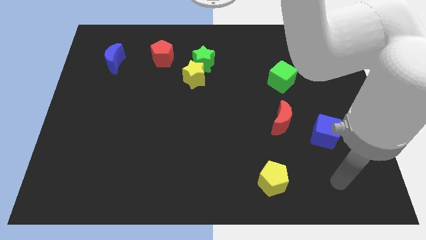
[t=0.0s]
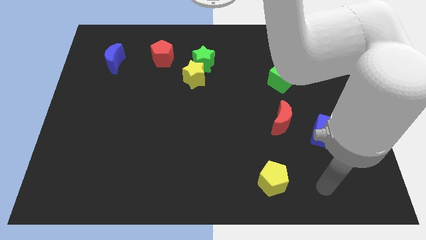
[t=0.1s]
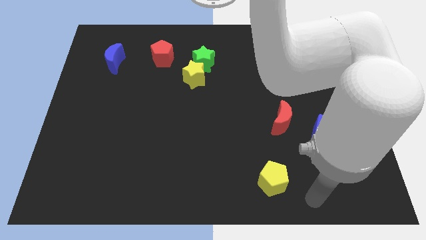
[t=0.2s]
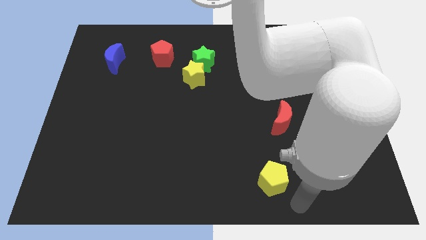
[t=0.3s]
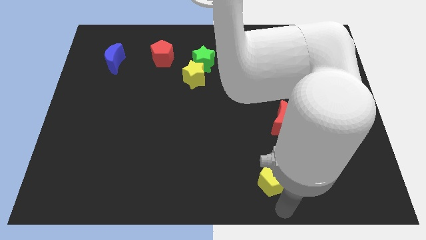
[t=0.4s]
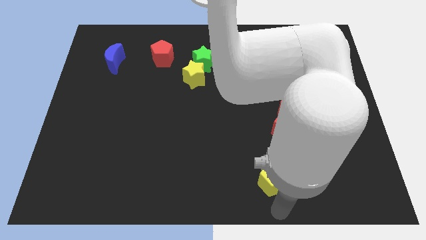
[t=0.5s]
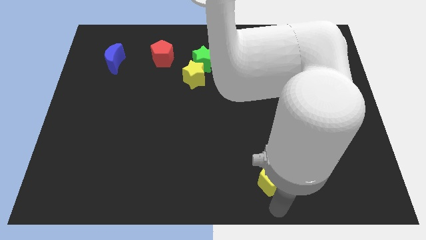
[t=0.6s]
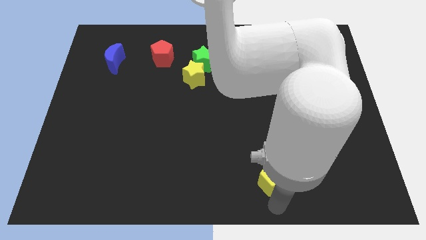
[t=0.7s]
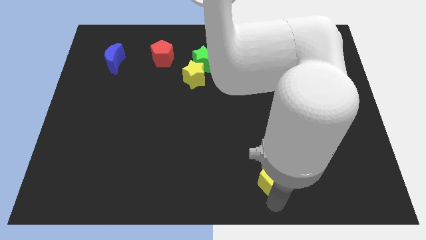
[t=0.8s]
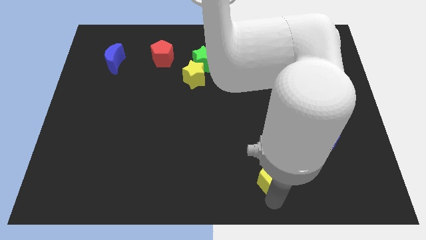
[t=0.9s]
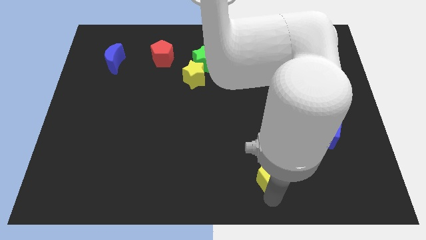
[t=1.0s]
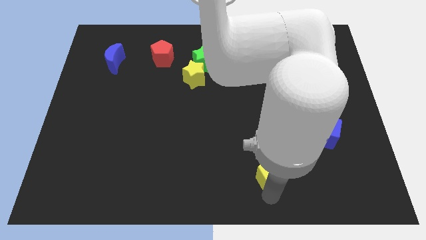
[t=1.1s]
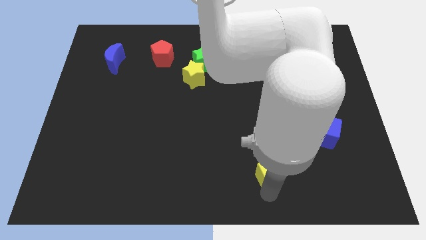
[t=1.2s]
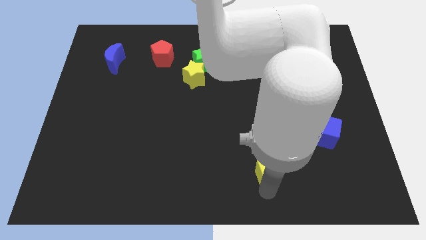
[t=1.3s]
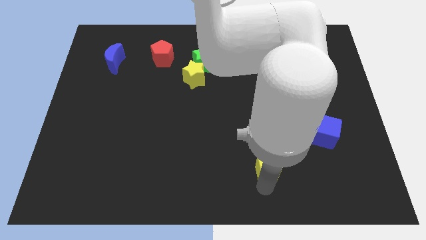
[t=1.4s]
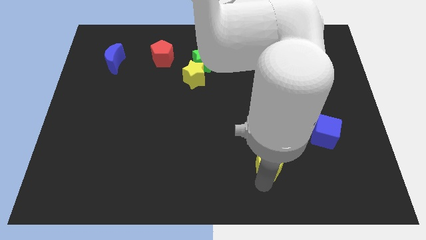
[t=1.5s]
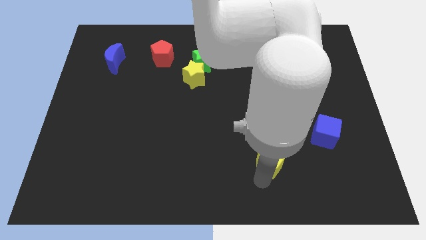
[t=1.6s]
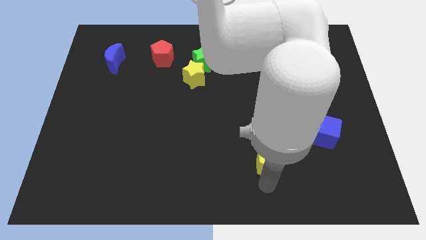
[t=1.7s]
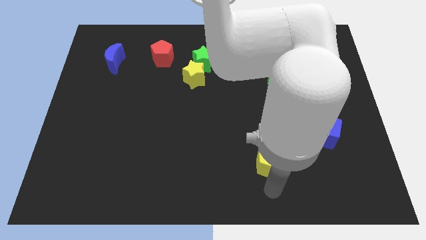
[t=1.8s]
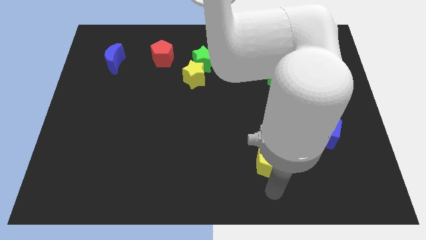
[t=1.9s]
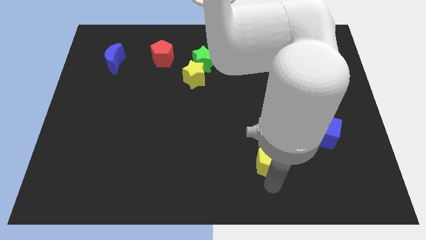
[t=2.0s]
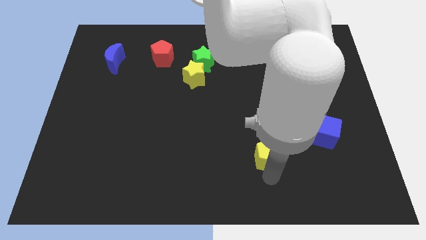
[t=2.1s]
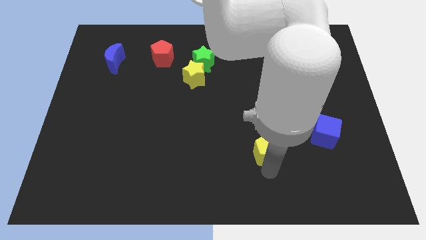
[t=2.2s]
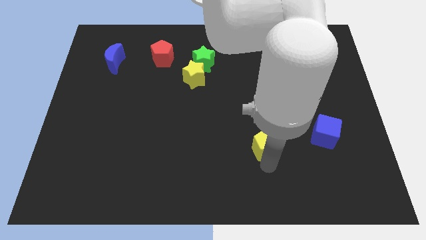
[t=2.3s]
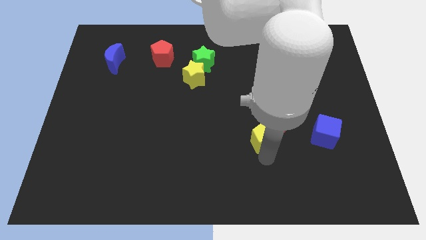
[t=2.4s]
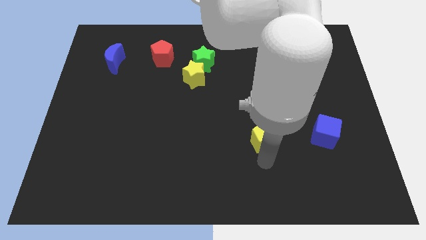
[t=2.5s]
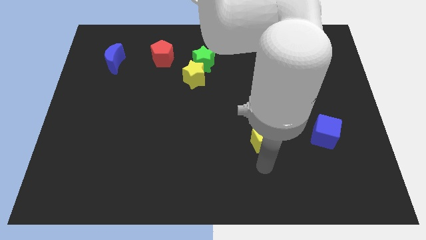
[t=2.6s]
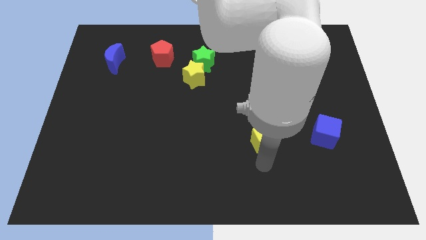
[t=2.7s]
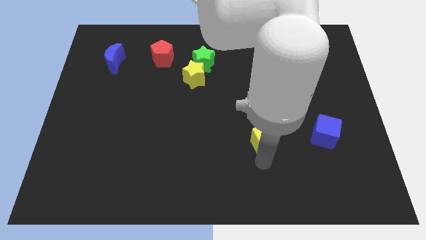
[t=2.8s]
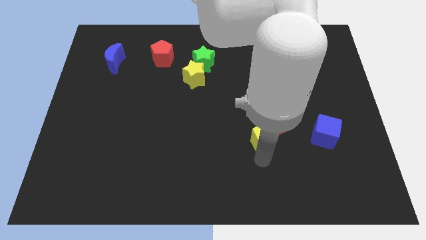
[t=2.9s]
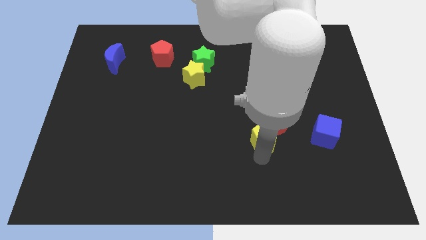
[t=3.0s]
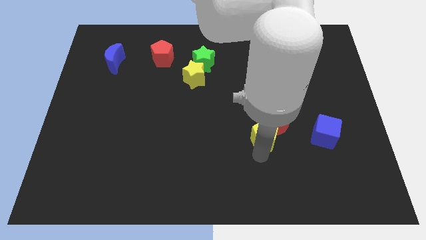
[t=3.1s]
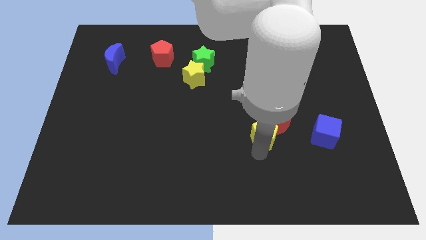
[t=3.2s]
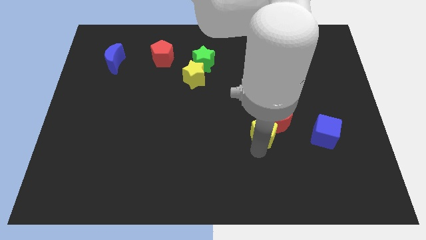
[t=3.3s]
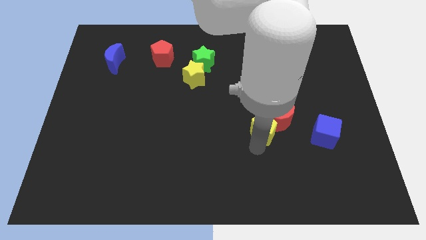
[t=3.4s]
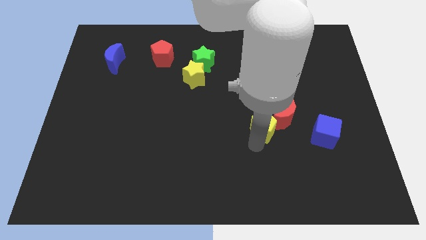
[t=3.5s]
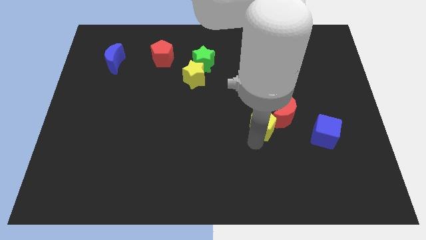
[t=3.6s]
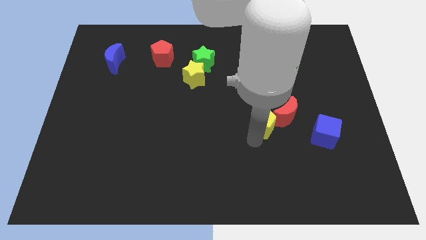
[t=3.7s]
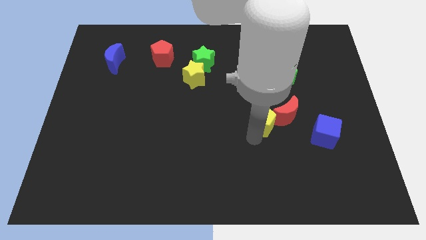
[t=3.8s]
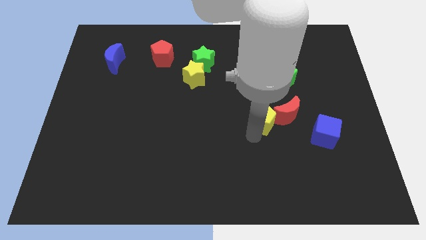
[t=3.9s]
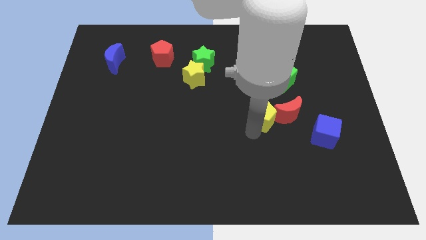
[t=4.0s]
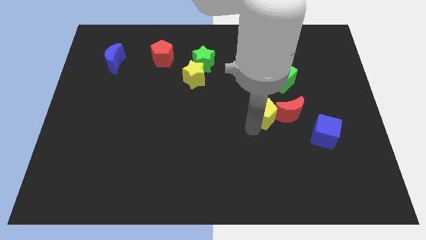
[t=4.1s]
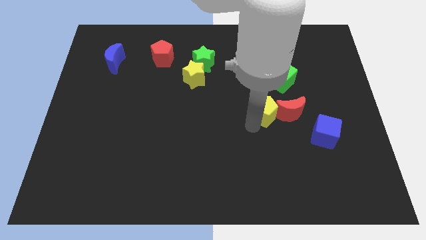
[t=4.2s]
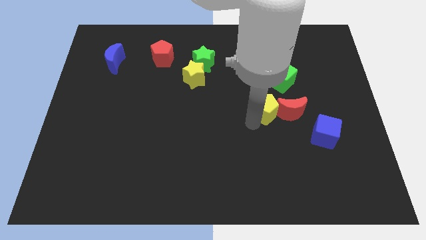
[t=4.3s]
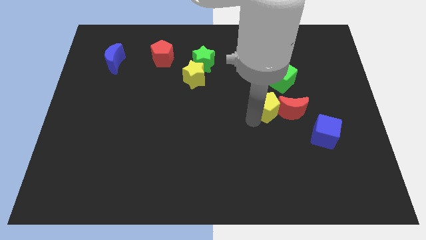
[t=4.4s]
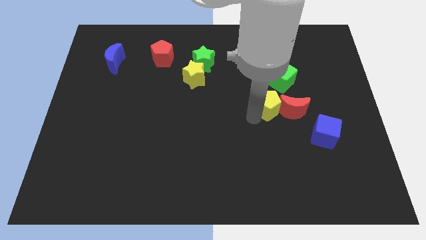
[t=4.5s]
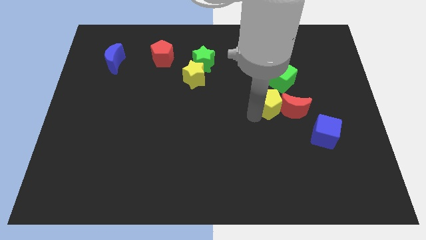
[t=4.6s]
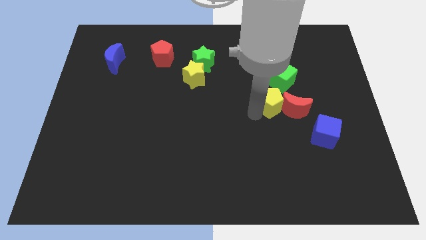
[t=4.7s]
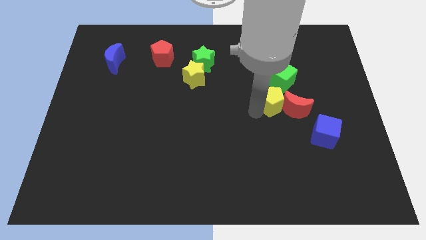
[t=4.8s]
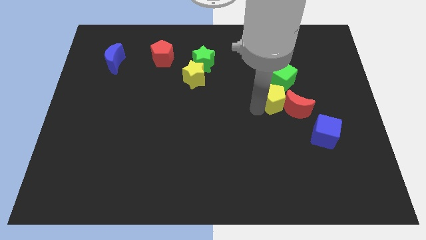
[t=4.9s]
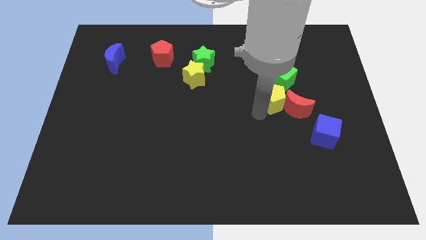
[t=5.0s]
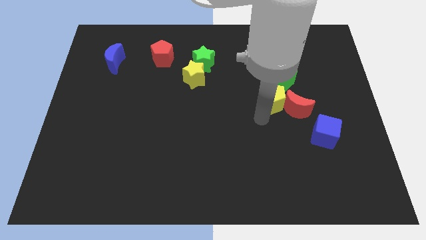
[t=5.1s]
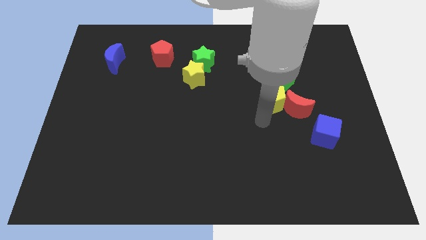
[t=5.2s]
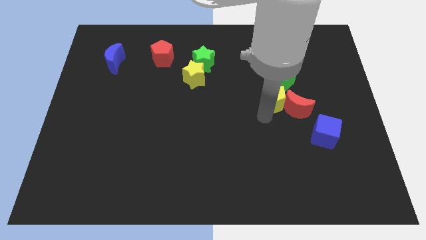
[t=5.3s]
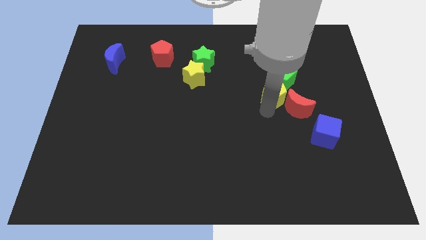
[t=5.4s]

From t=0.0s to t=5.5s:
slide the yellow pentagon towards the green cube

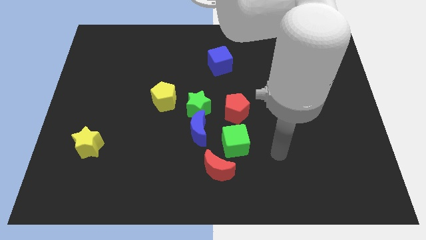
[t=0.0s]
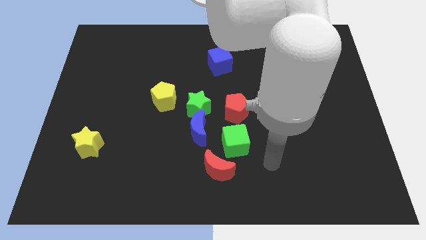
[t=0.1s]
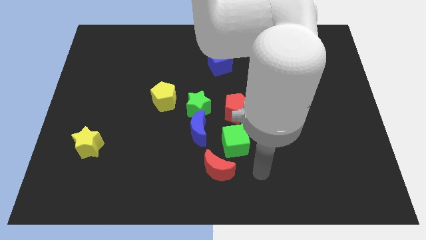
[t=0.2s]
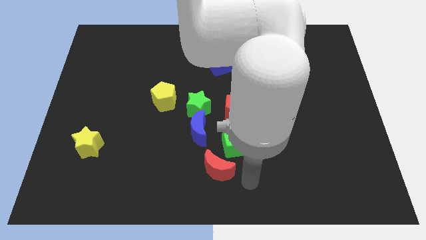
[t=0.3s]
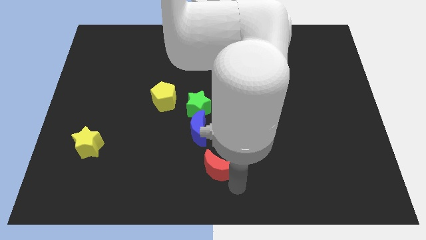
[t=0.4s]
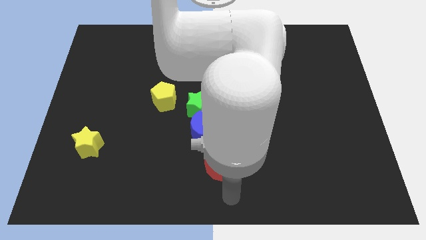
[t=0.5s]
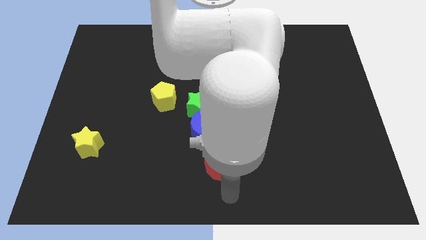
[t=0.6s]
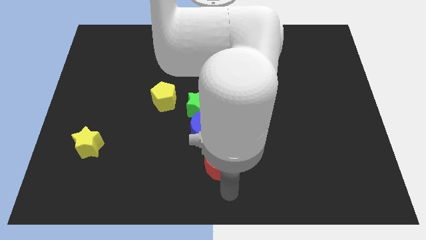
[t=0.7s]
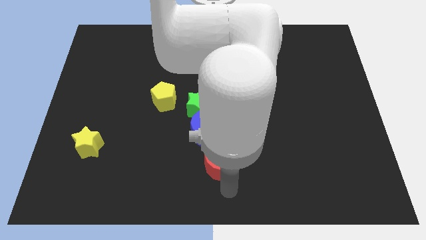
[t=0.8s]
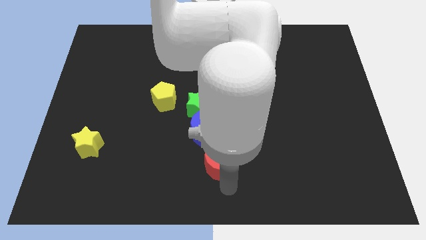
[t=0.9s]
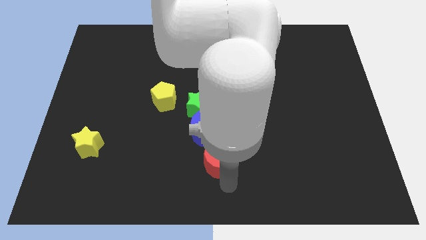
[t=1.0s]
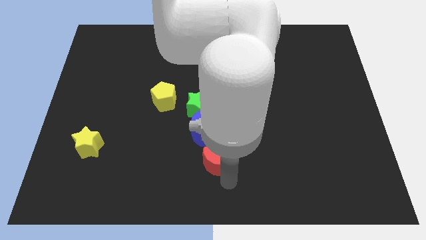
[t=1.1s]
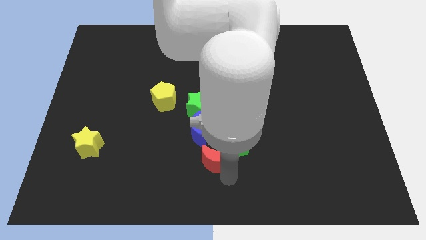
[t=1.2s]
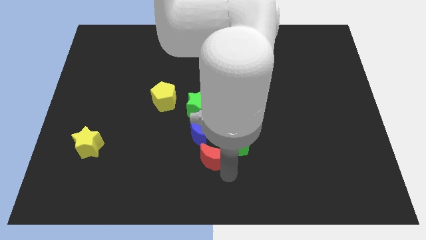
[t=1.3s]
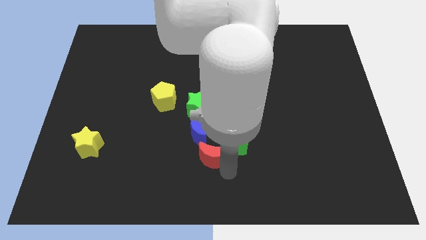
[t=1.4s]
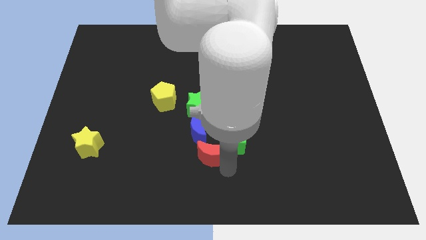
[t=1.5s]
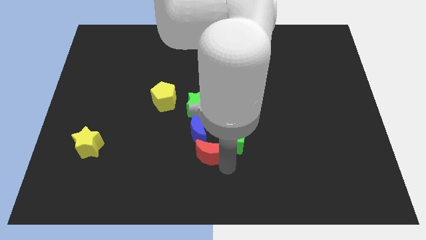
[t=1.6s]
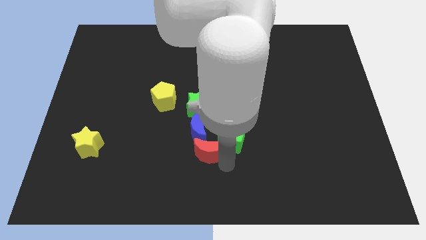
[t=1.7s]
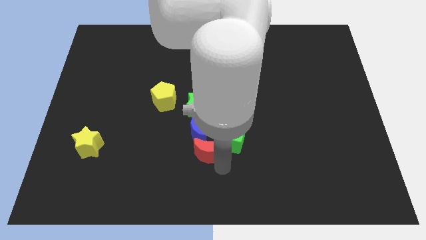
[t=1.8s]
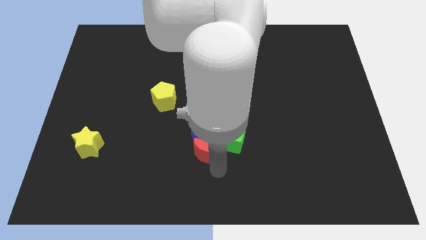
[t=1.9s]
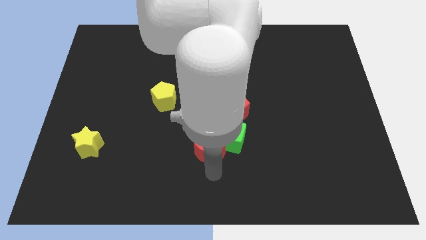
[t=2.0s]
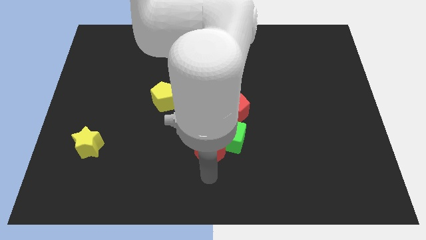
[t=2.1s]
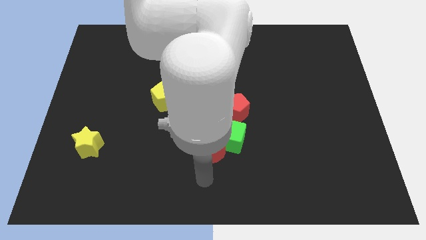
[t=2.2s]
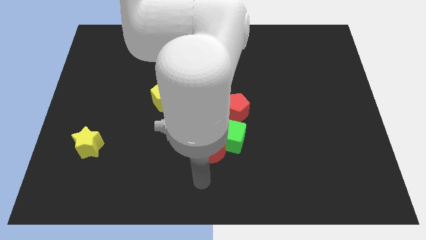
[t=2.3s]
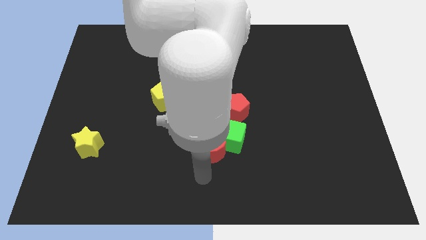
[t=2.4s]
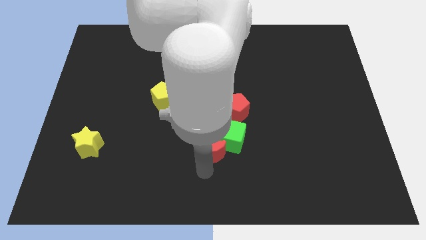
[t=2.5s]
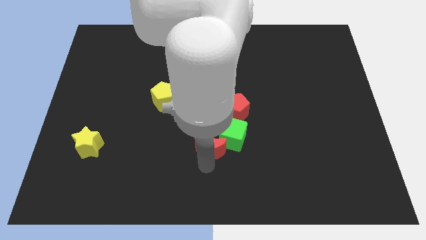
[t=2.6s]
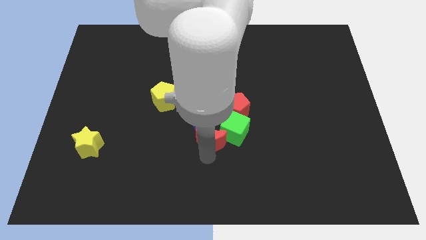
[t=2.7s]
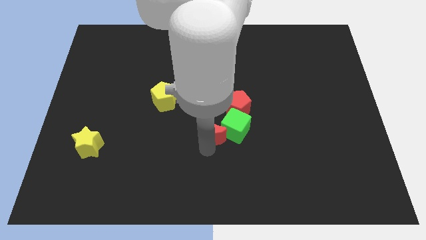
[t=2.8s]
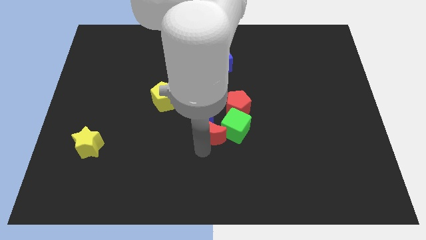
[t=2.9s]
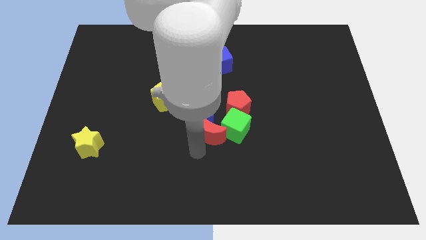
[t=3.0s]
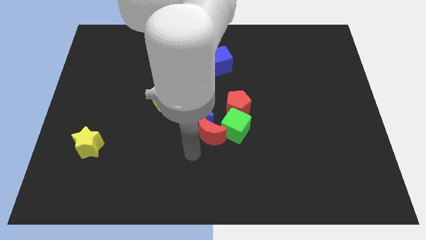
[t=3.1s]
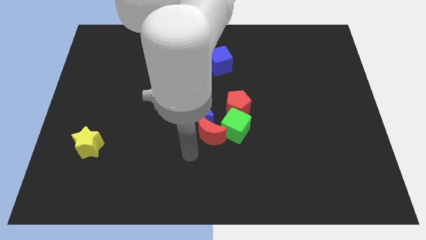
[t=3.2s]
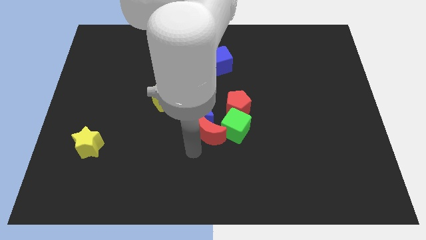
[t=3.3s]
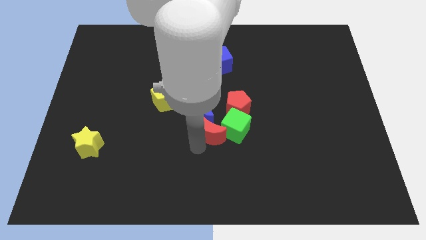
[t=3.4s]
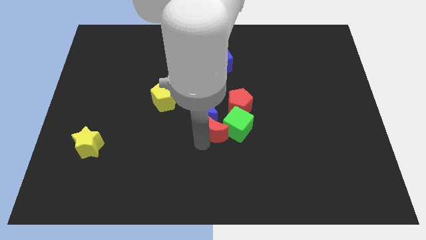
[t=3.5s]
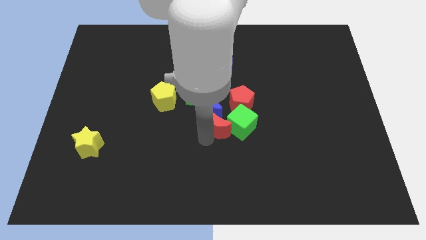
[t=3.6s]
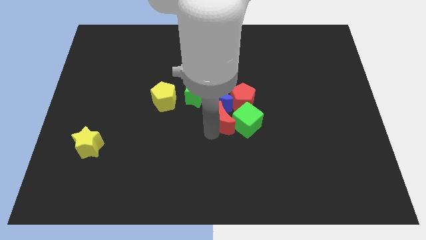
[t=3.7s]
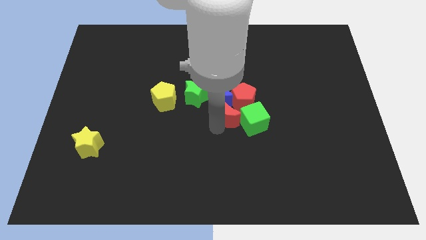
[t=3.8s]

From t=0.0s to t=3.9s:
move the red moon towards the red pentagon
